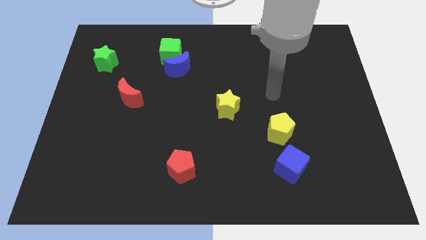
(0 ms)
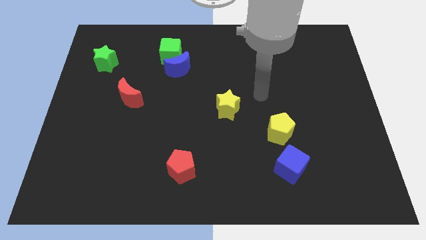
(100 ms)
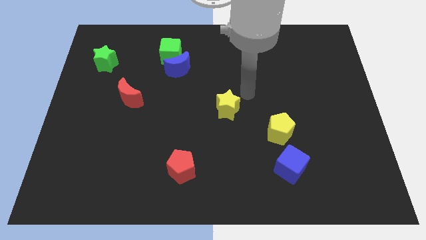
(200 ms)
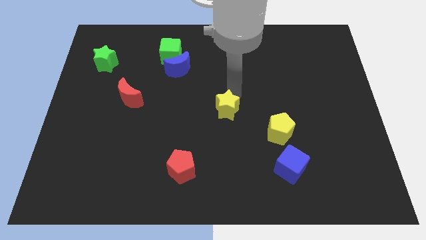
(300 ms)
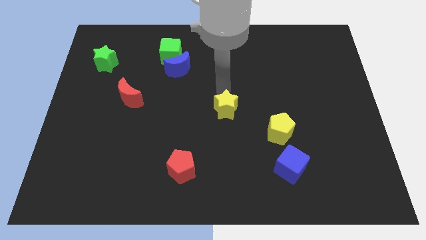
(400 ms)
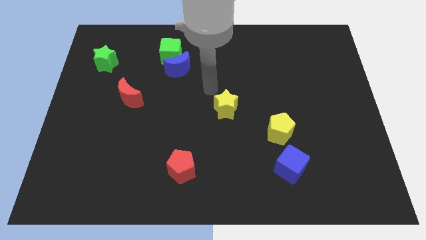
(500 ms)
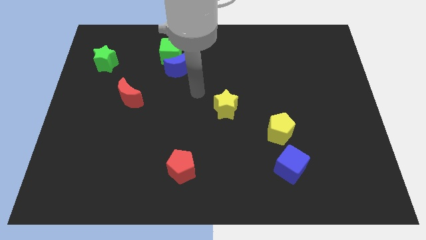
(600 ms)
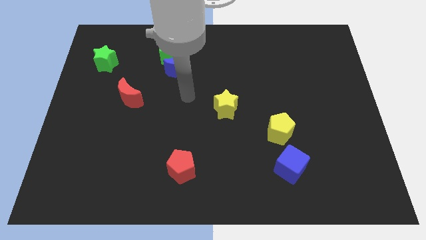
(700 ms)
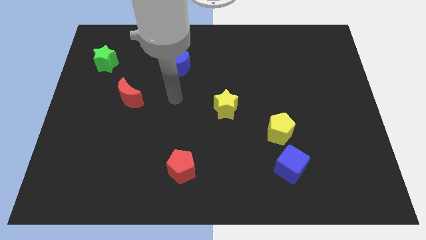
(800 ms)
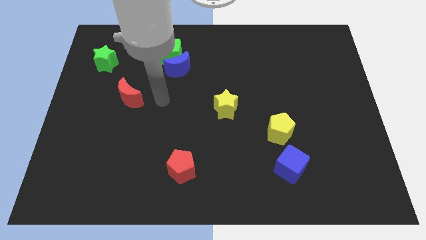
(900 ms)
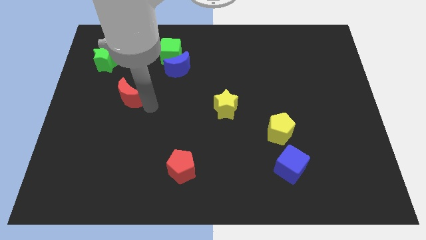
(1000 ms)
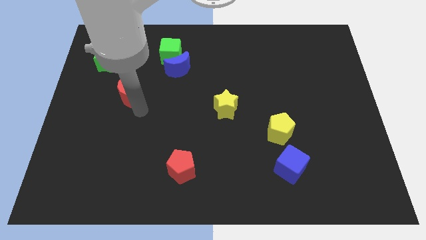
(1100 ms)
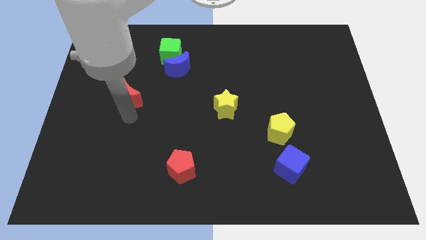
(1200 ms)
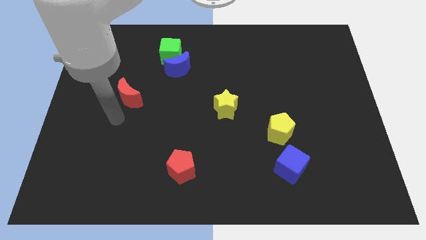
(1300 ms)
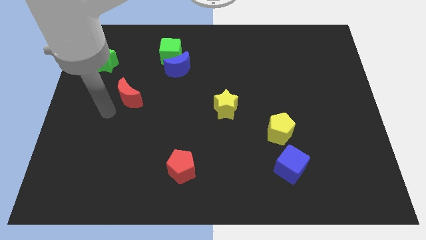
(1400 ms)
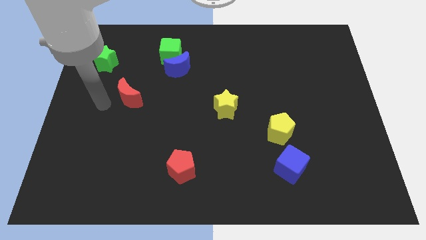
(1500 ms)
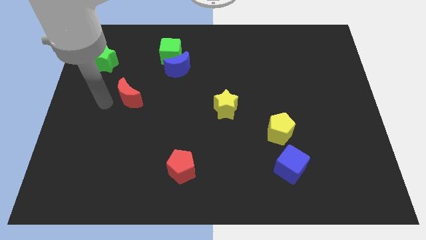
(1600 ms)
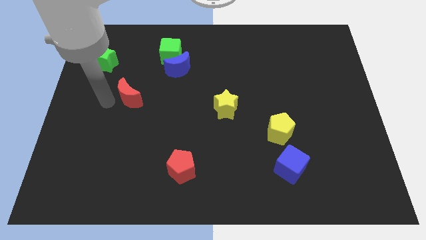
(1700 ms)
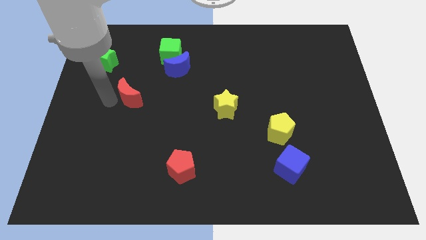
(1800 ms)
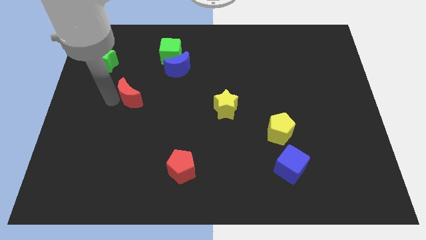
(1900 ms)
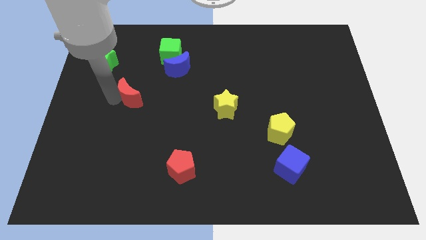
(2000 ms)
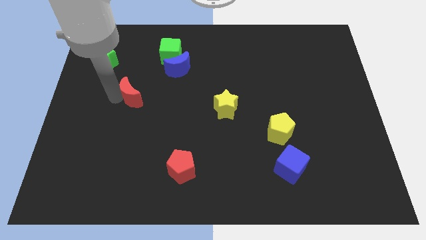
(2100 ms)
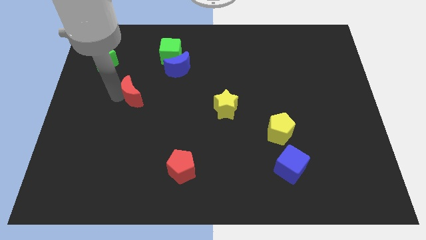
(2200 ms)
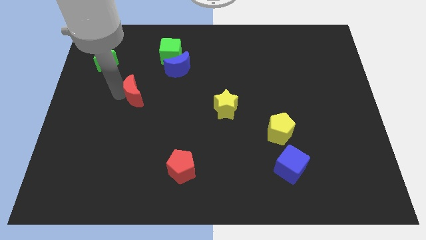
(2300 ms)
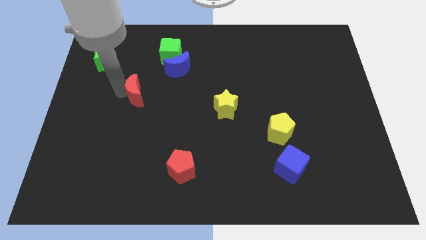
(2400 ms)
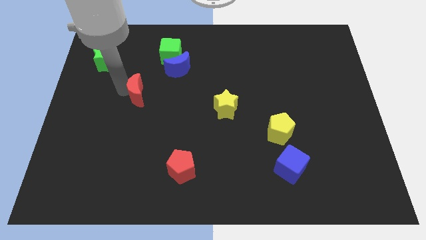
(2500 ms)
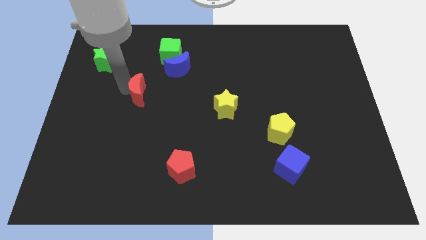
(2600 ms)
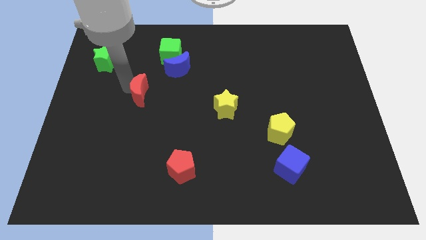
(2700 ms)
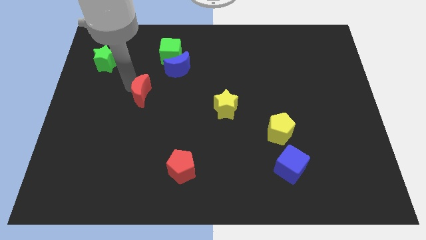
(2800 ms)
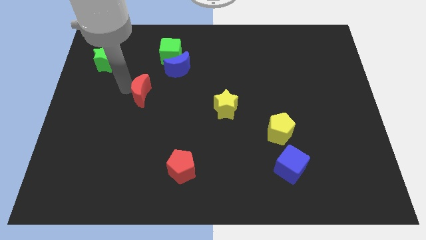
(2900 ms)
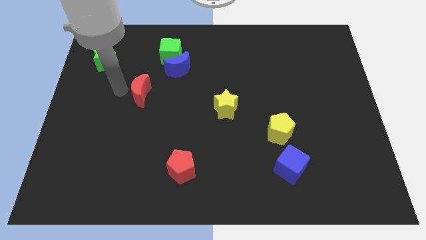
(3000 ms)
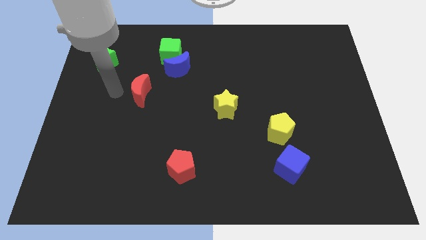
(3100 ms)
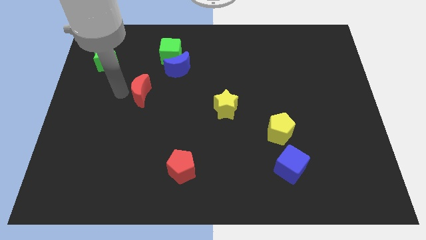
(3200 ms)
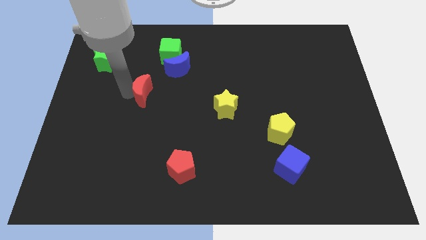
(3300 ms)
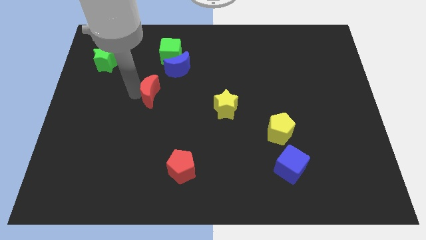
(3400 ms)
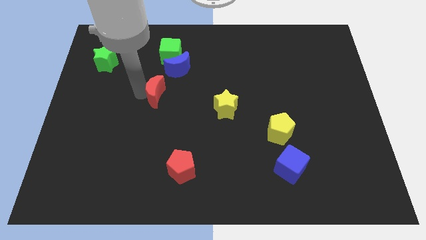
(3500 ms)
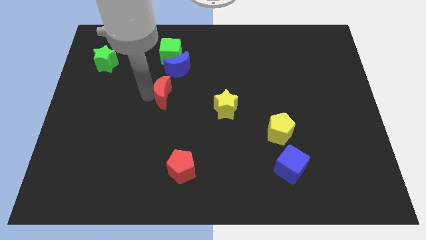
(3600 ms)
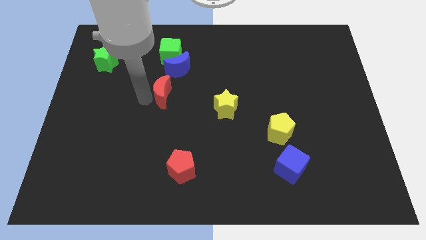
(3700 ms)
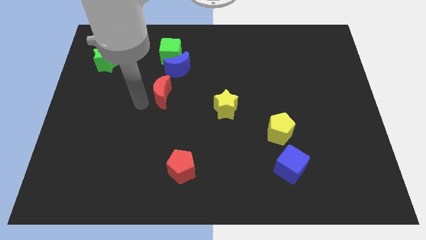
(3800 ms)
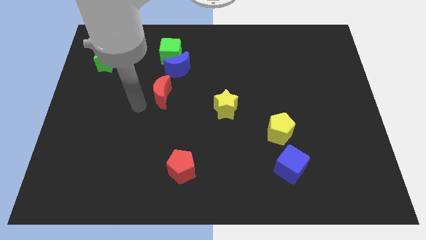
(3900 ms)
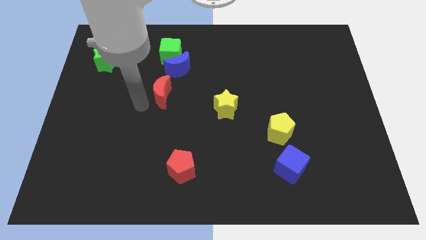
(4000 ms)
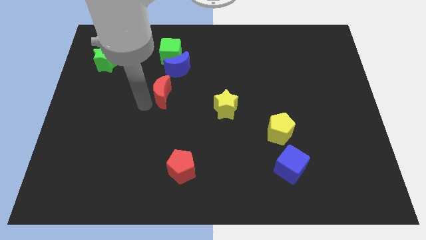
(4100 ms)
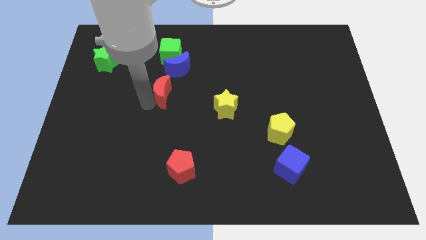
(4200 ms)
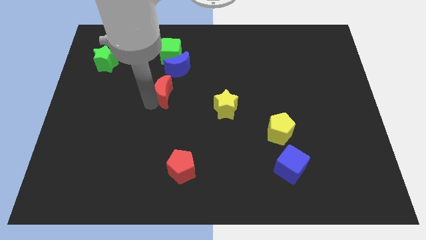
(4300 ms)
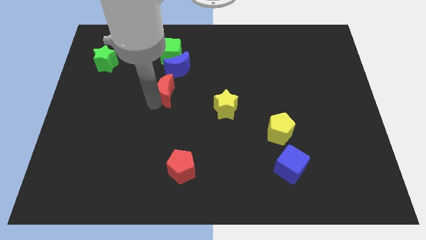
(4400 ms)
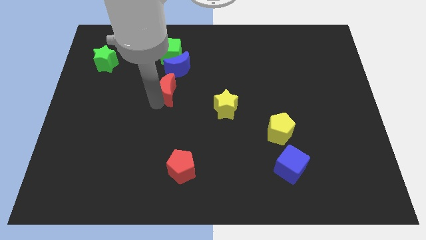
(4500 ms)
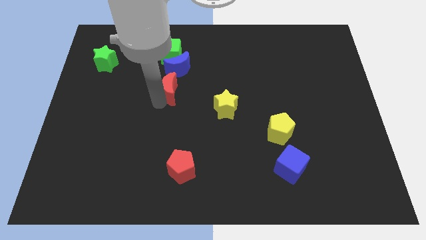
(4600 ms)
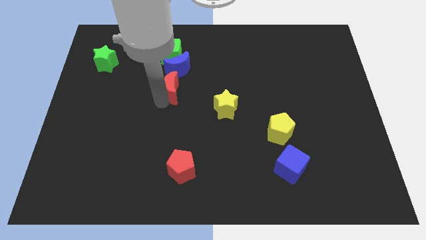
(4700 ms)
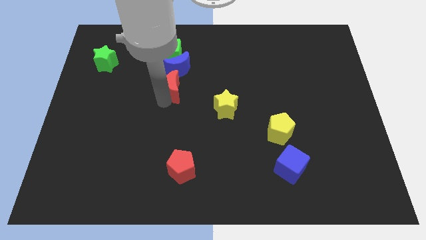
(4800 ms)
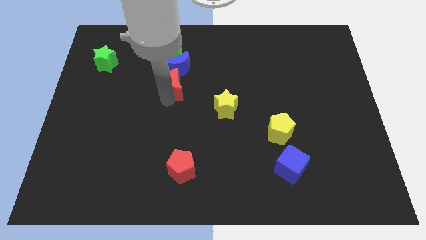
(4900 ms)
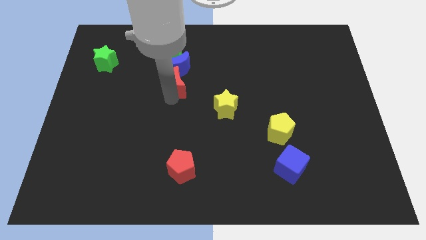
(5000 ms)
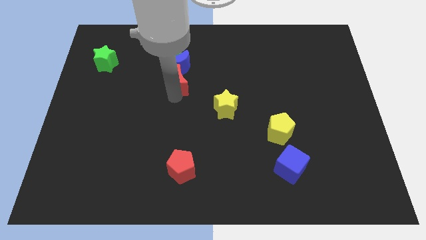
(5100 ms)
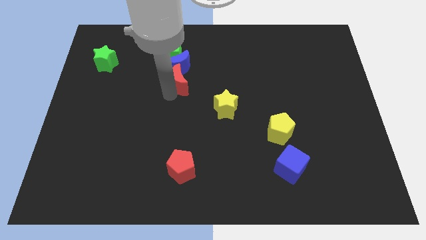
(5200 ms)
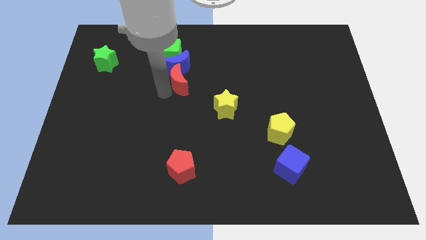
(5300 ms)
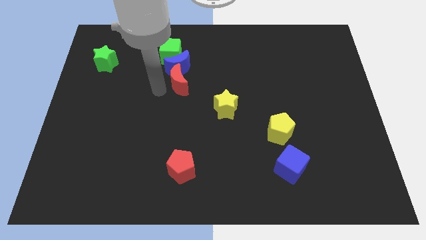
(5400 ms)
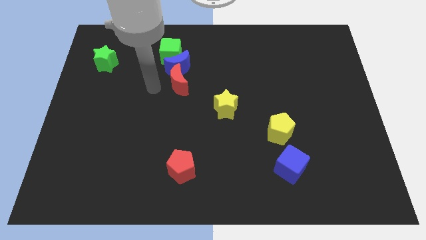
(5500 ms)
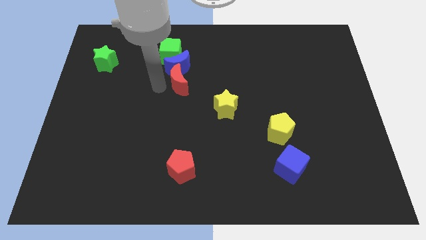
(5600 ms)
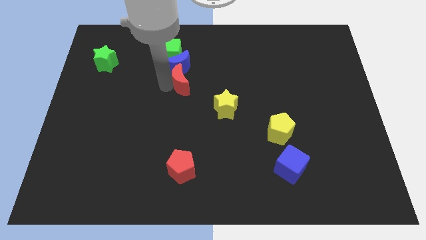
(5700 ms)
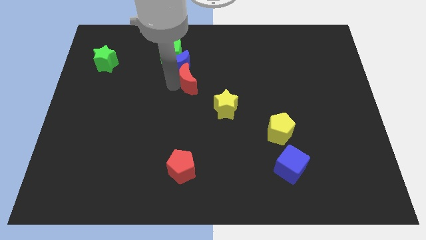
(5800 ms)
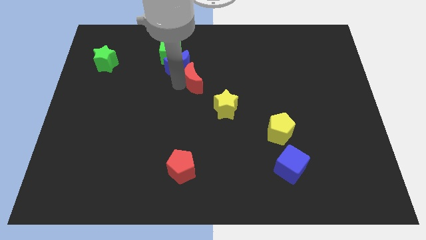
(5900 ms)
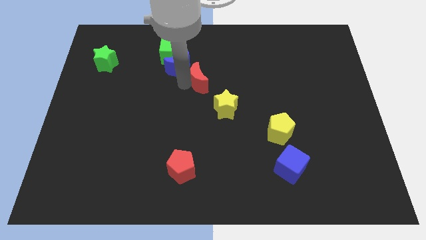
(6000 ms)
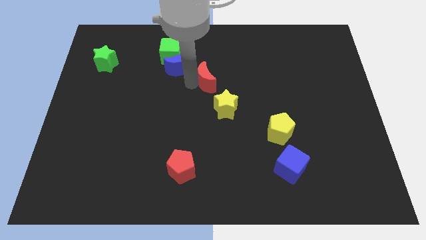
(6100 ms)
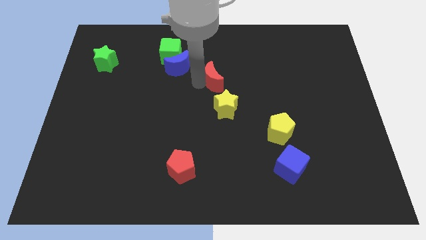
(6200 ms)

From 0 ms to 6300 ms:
slide the red moon to the top side of the yellow star

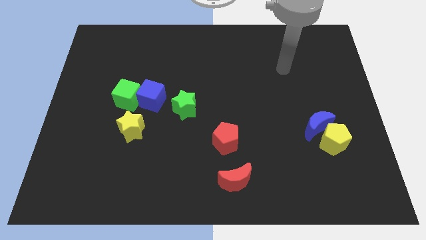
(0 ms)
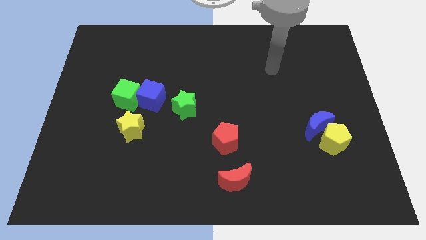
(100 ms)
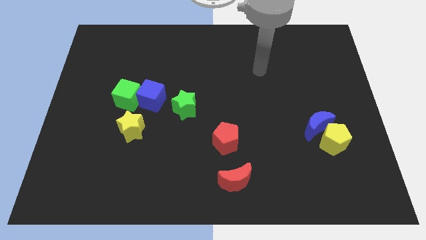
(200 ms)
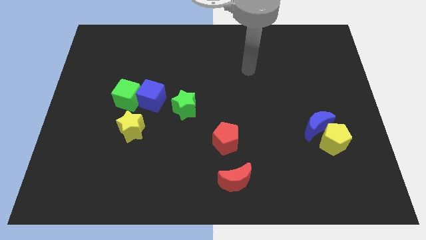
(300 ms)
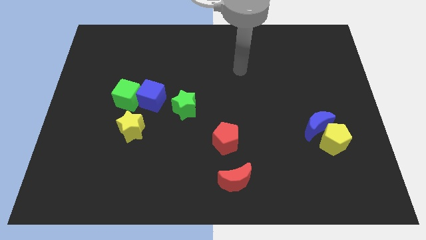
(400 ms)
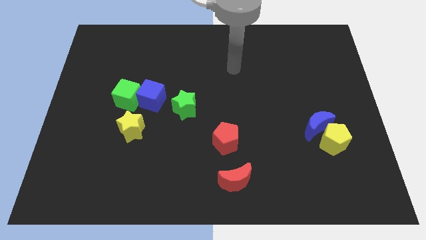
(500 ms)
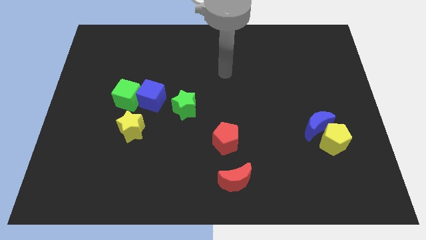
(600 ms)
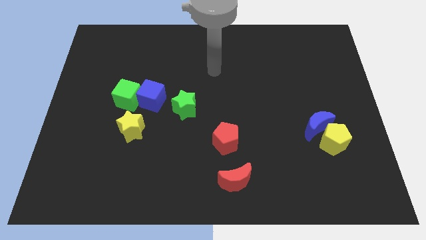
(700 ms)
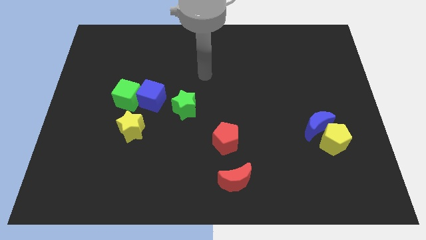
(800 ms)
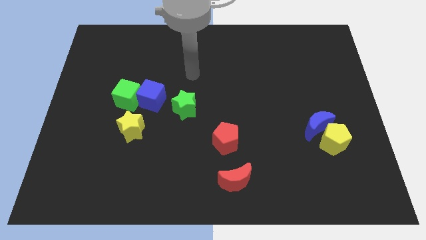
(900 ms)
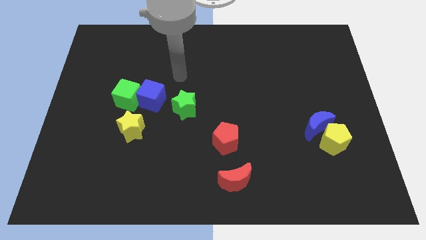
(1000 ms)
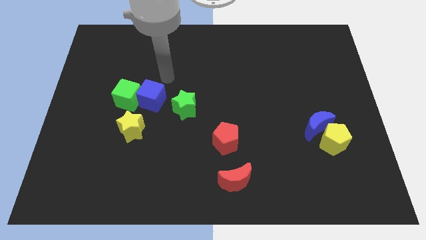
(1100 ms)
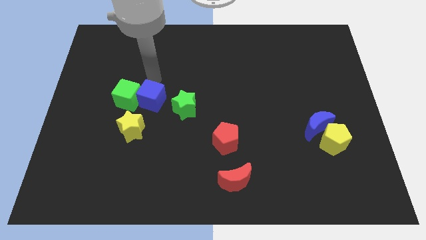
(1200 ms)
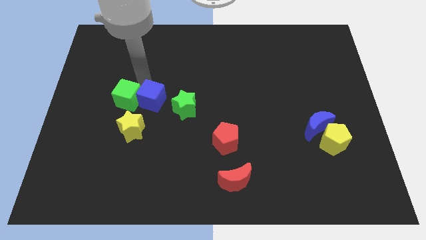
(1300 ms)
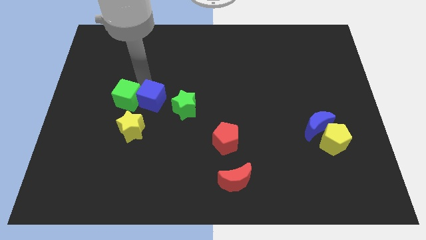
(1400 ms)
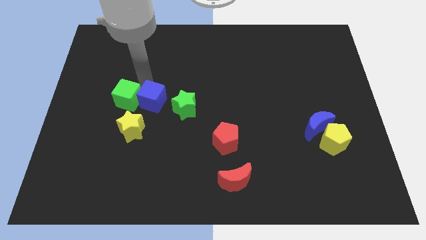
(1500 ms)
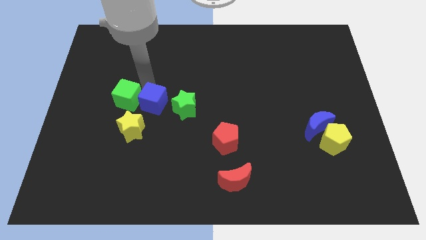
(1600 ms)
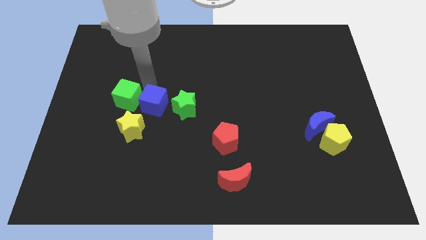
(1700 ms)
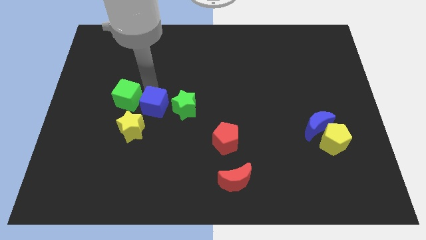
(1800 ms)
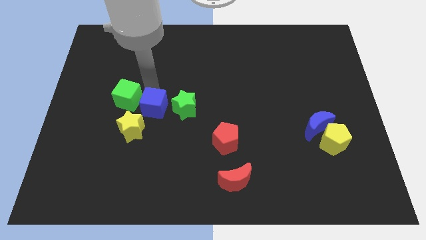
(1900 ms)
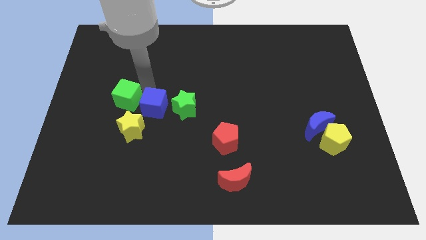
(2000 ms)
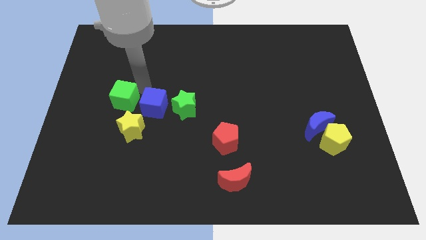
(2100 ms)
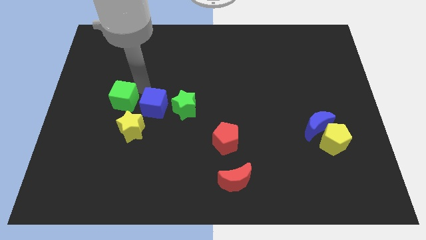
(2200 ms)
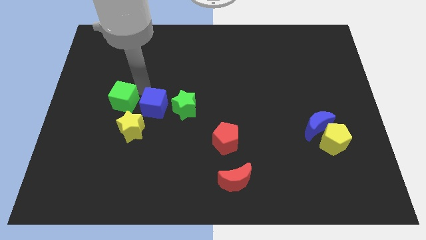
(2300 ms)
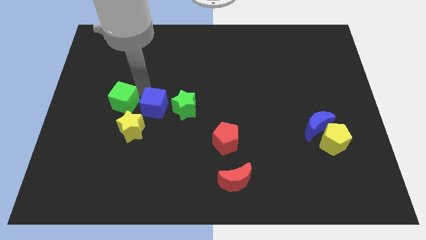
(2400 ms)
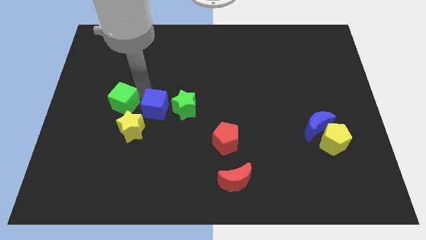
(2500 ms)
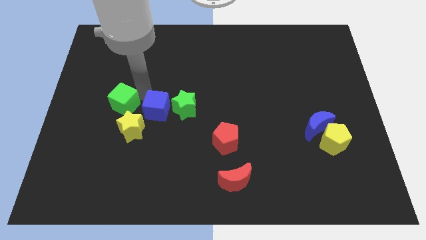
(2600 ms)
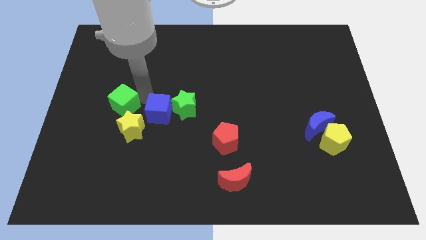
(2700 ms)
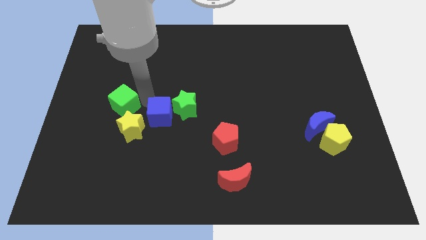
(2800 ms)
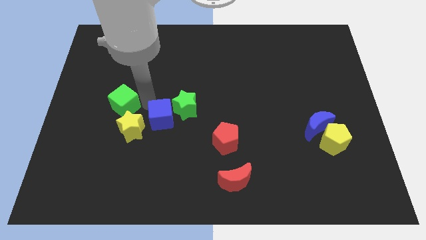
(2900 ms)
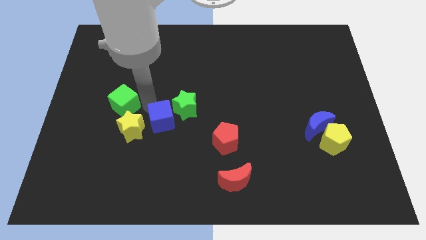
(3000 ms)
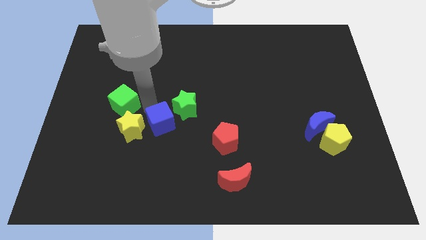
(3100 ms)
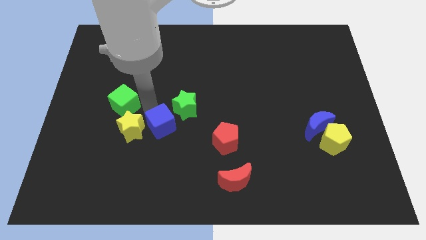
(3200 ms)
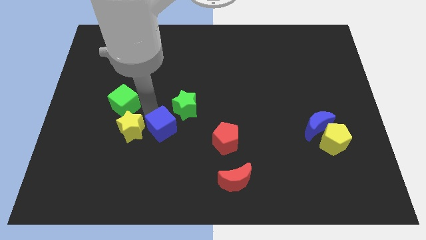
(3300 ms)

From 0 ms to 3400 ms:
push the blue cube just left of the red pentagon
